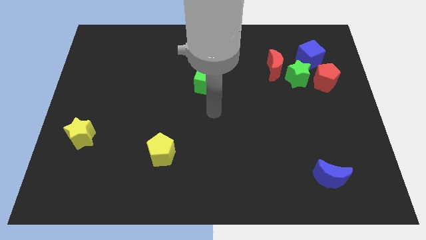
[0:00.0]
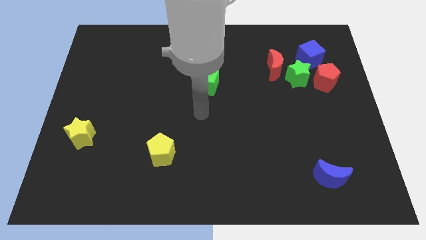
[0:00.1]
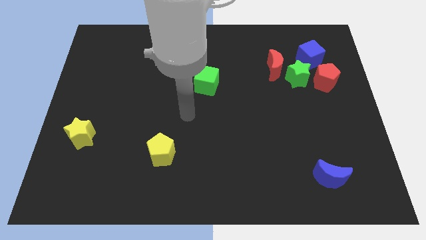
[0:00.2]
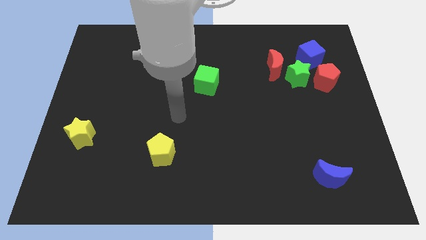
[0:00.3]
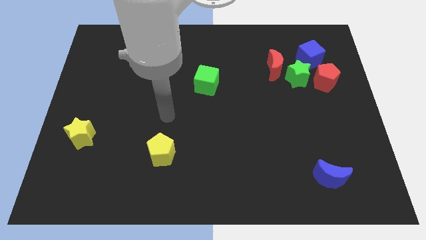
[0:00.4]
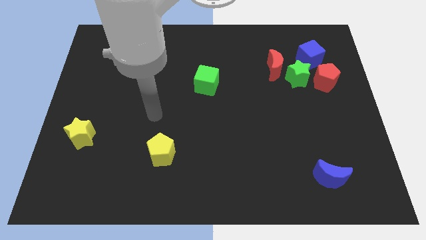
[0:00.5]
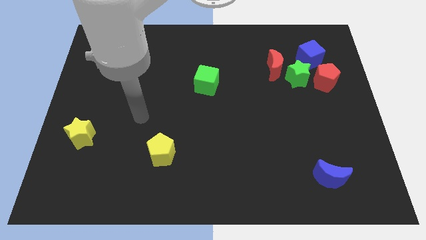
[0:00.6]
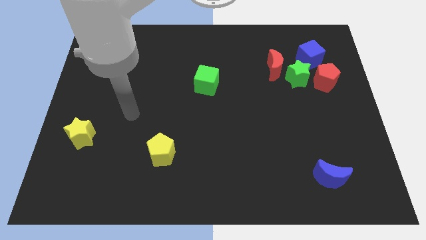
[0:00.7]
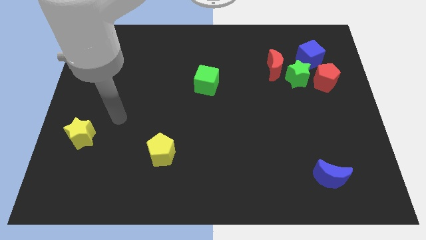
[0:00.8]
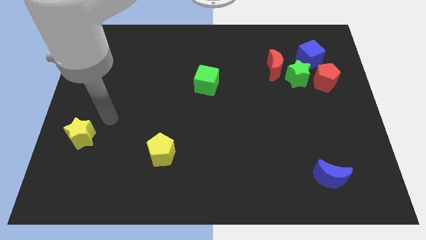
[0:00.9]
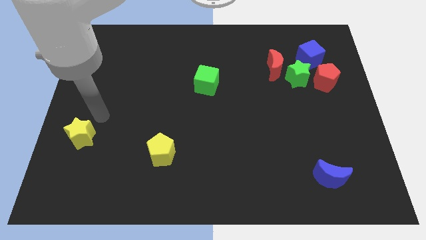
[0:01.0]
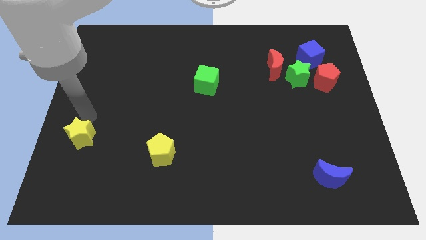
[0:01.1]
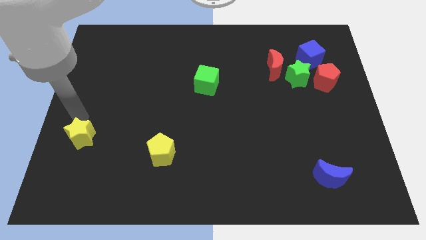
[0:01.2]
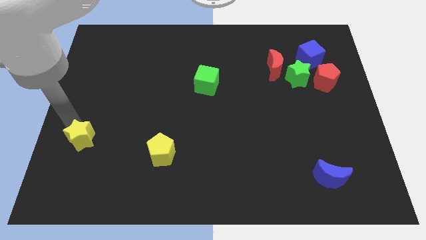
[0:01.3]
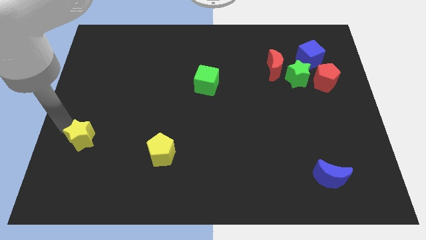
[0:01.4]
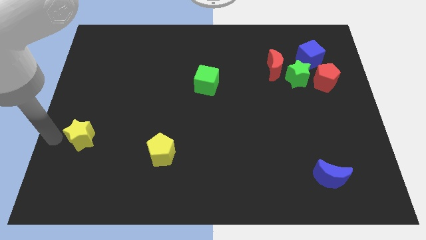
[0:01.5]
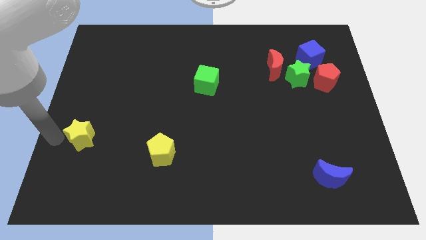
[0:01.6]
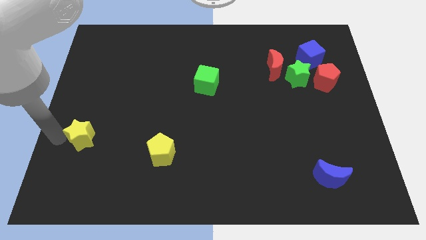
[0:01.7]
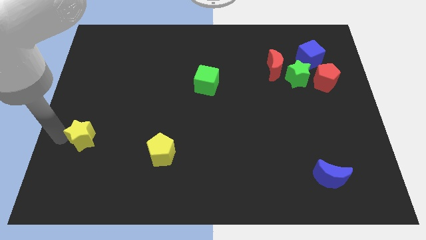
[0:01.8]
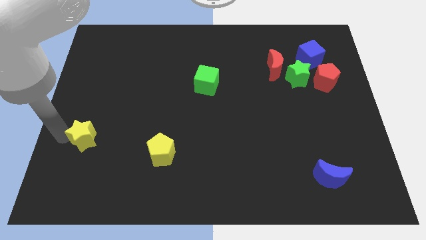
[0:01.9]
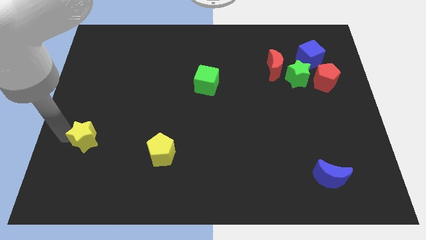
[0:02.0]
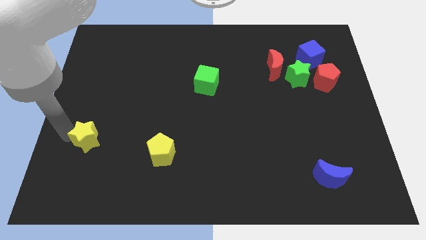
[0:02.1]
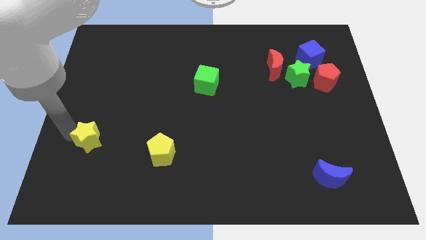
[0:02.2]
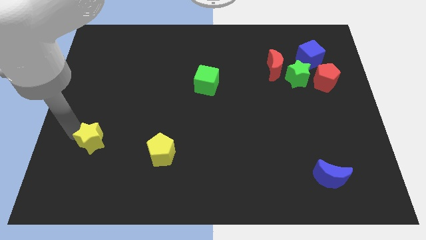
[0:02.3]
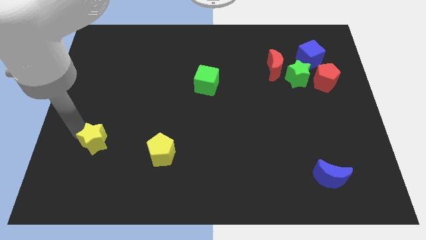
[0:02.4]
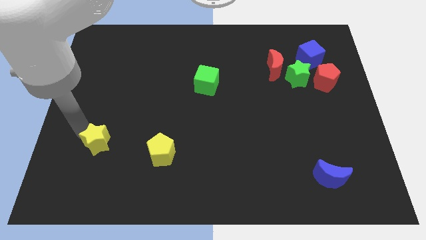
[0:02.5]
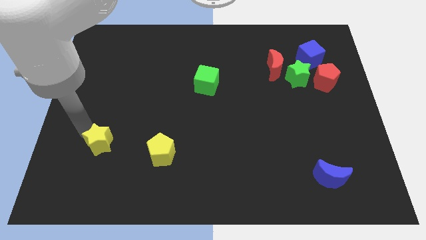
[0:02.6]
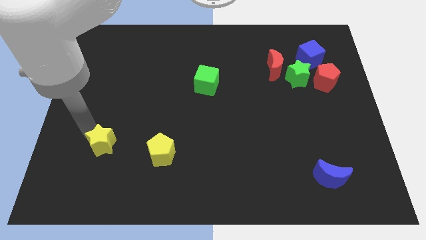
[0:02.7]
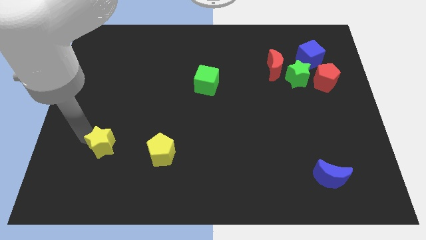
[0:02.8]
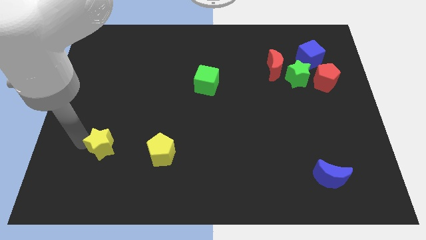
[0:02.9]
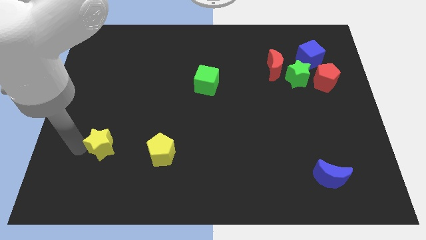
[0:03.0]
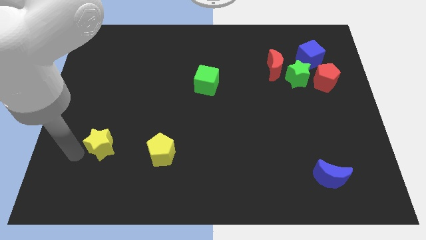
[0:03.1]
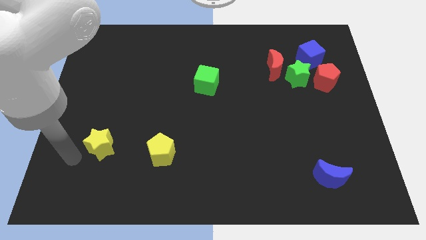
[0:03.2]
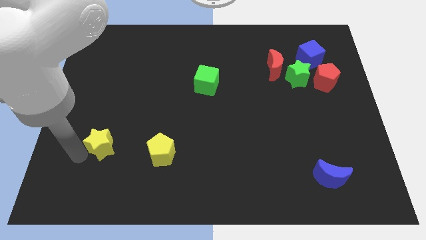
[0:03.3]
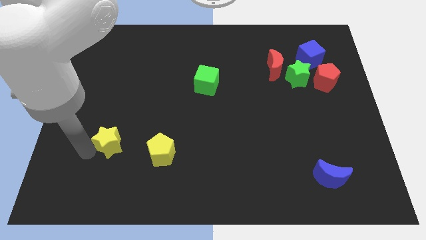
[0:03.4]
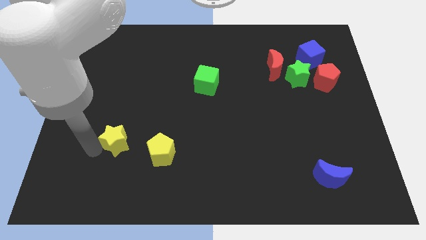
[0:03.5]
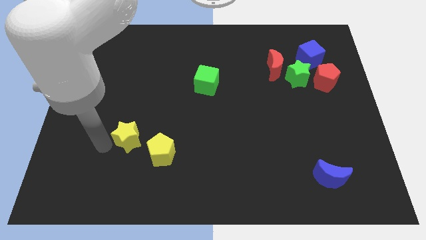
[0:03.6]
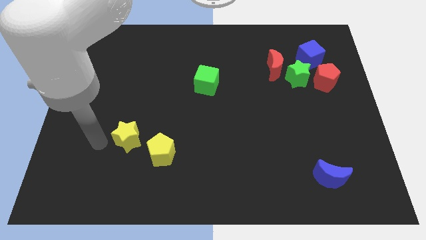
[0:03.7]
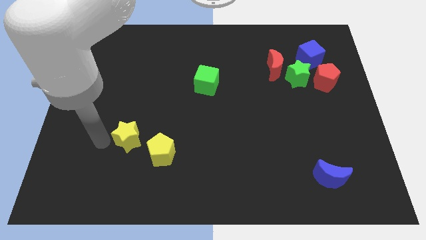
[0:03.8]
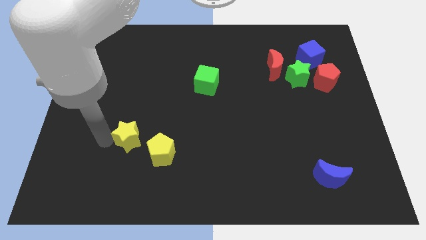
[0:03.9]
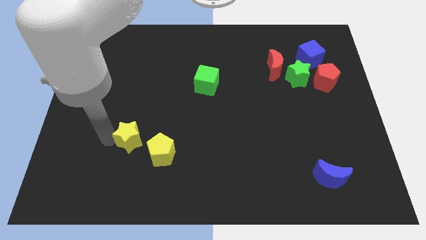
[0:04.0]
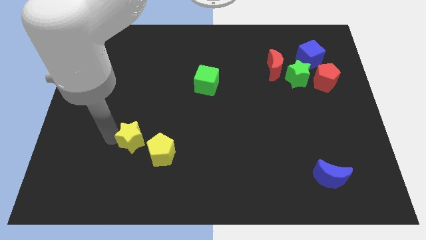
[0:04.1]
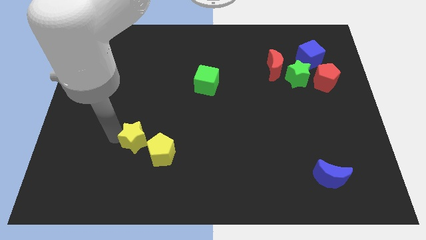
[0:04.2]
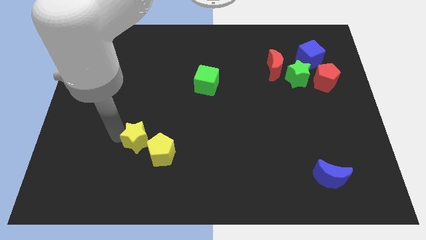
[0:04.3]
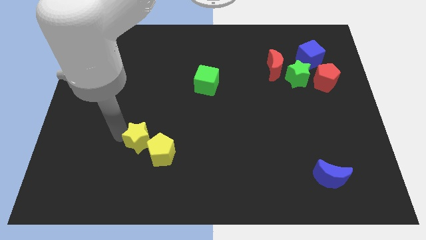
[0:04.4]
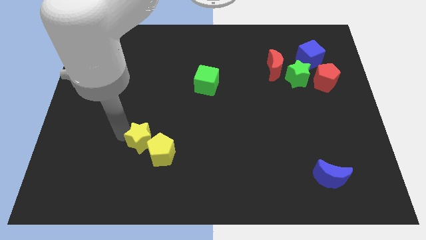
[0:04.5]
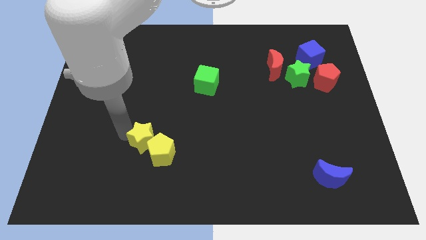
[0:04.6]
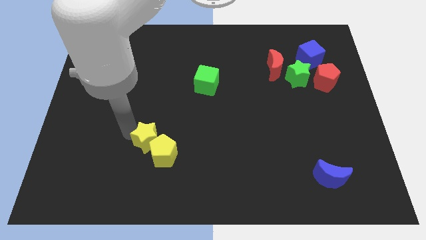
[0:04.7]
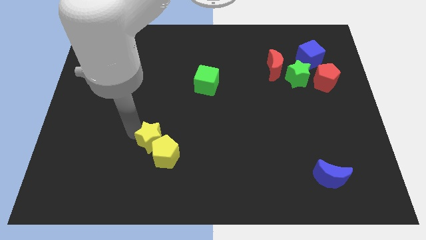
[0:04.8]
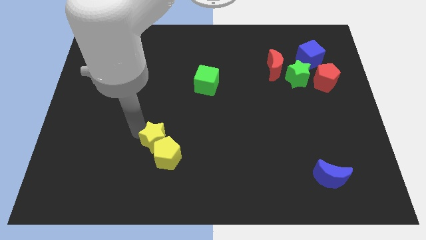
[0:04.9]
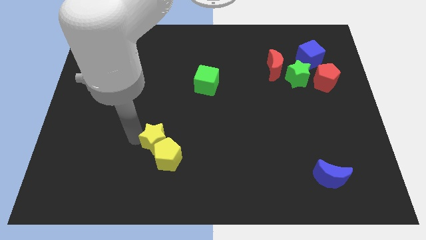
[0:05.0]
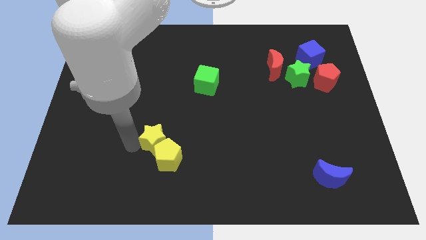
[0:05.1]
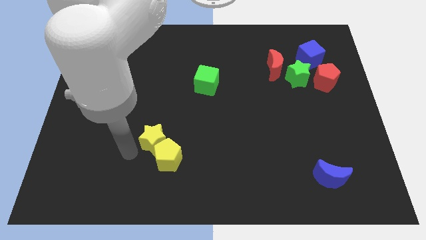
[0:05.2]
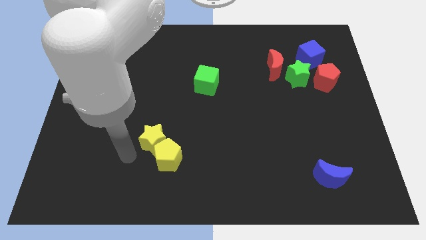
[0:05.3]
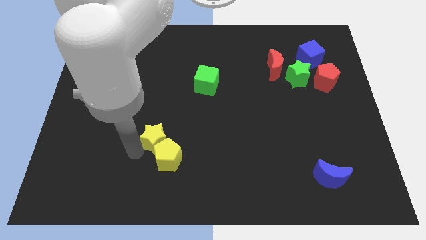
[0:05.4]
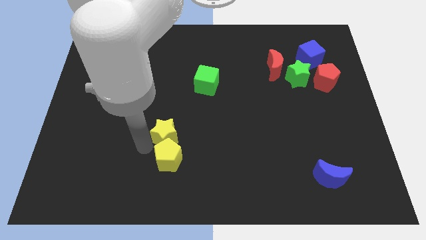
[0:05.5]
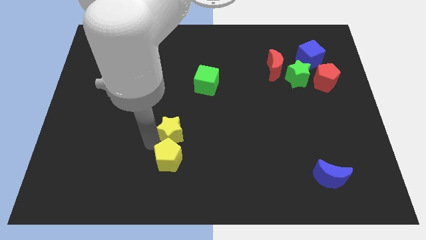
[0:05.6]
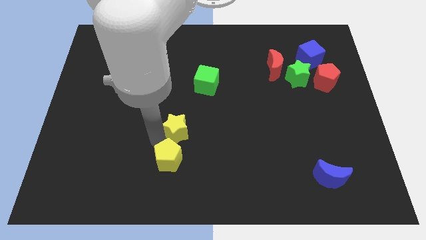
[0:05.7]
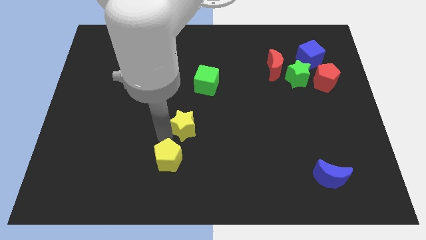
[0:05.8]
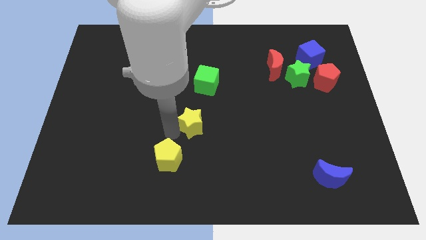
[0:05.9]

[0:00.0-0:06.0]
put the yellow star below the green cube

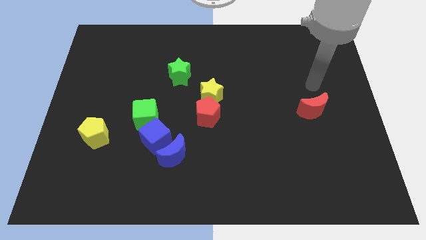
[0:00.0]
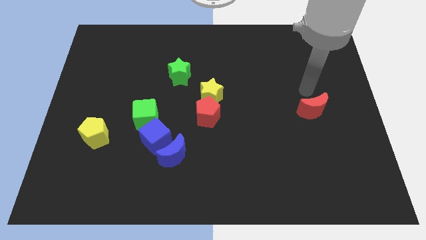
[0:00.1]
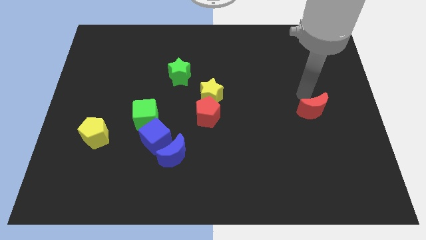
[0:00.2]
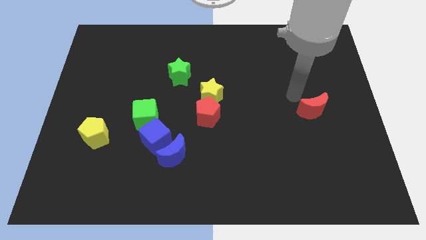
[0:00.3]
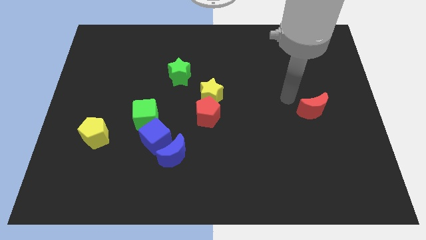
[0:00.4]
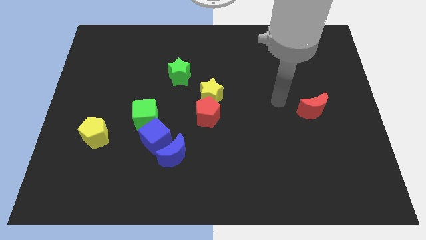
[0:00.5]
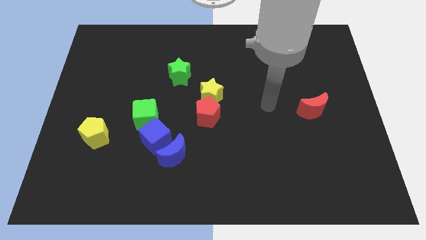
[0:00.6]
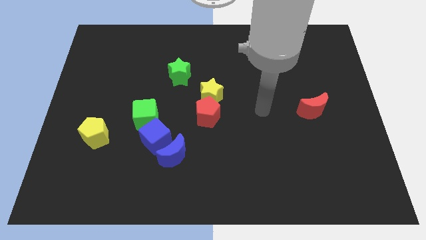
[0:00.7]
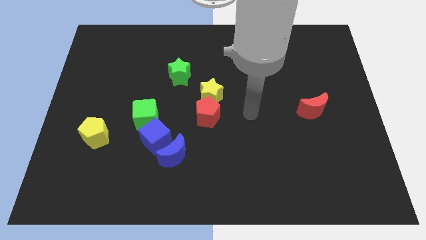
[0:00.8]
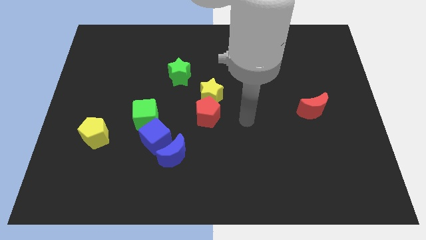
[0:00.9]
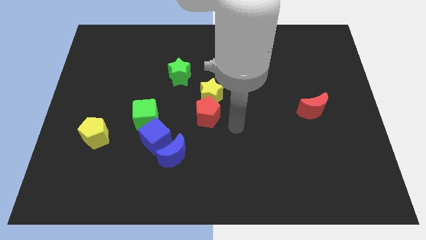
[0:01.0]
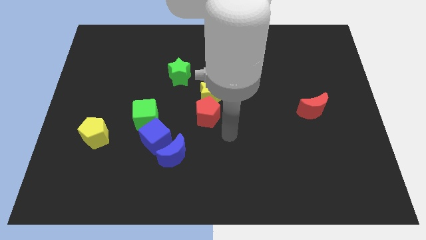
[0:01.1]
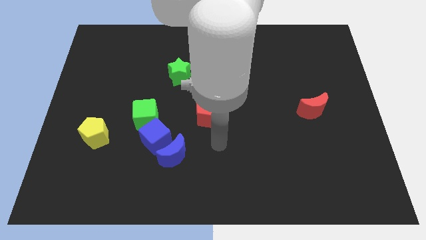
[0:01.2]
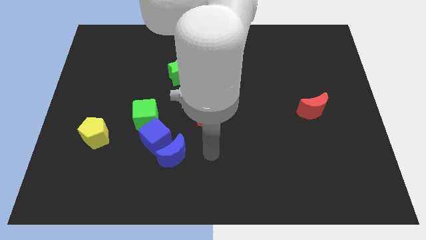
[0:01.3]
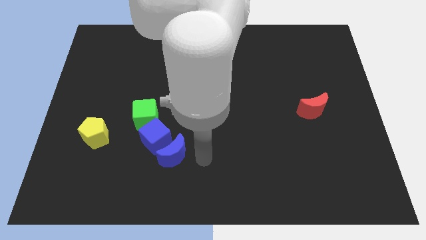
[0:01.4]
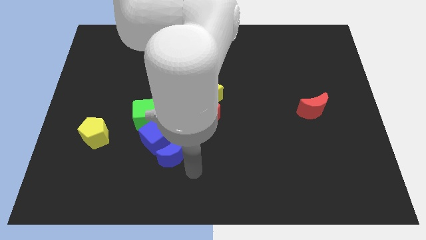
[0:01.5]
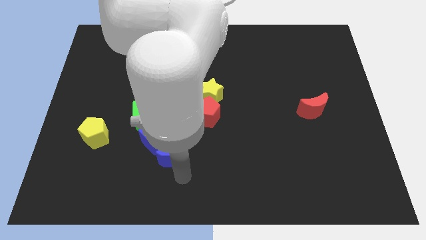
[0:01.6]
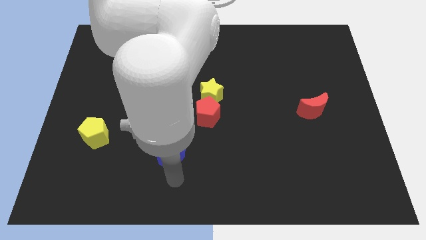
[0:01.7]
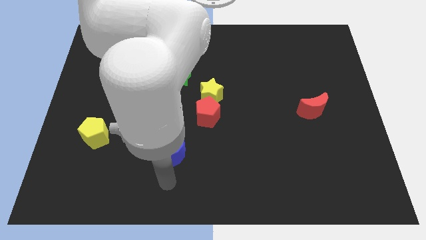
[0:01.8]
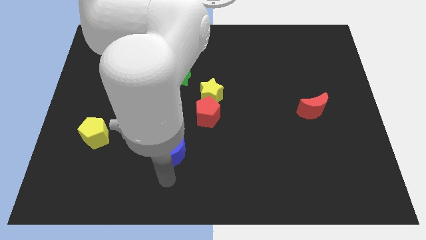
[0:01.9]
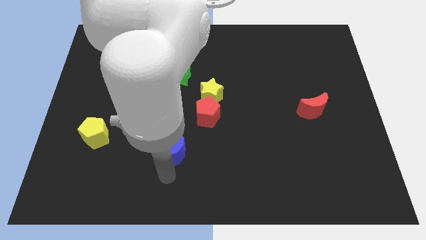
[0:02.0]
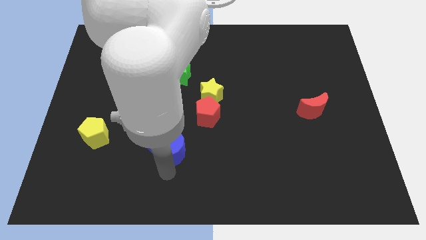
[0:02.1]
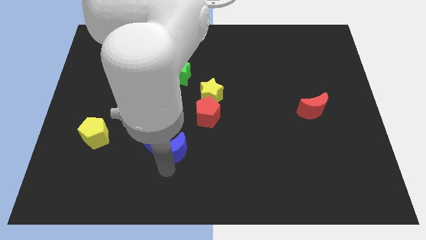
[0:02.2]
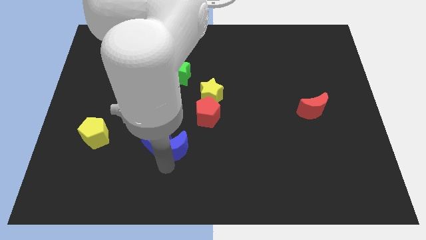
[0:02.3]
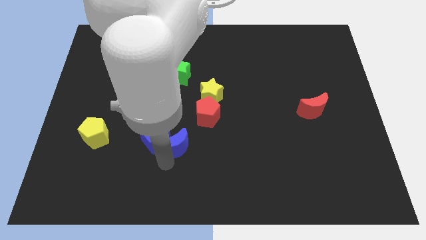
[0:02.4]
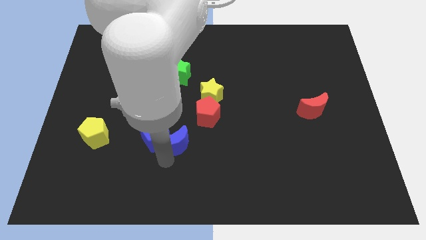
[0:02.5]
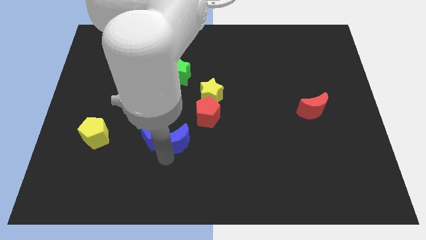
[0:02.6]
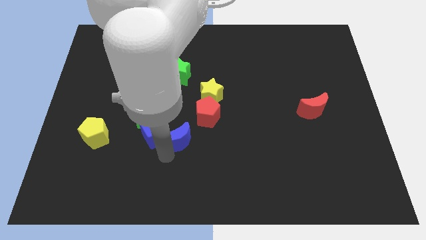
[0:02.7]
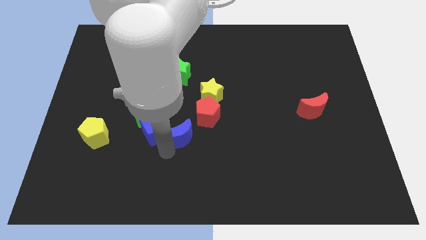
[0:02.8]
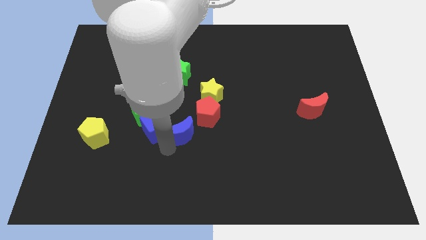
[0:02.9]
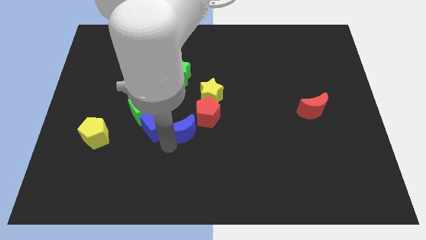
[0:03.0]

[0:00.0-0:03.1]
slide the blue moon diagonally down and to the left of the yellow star
